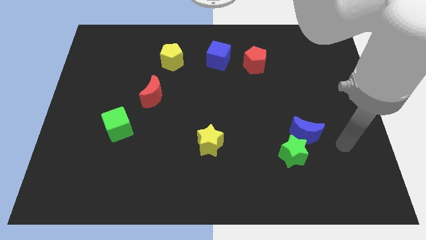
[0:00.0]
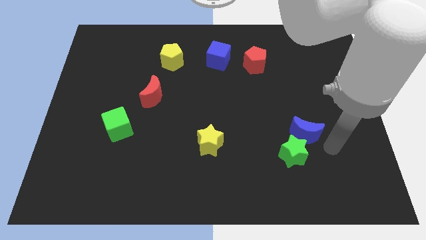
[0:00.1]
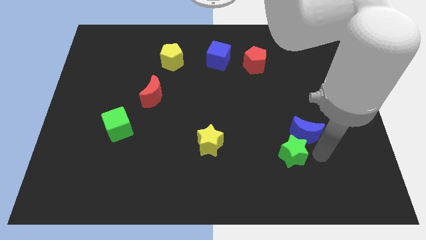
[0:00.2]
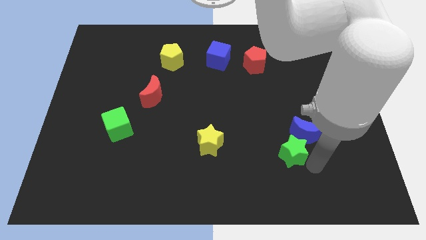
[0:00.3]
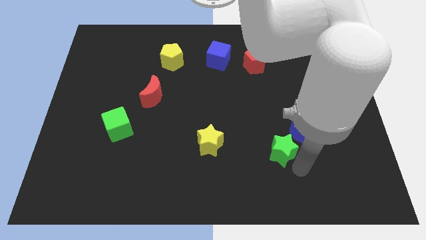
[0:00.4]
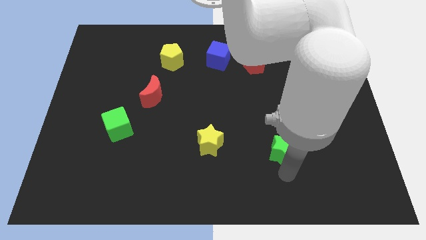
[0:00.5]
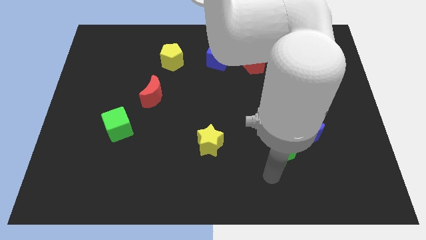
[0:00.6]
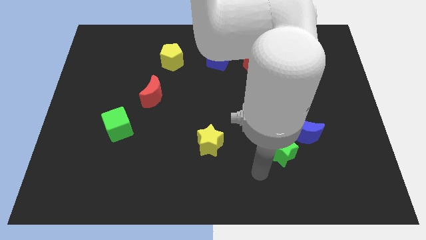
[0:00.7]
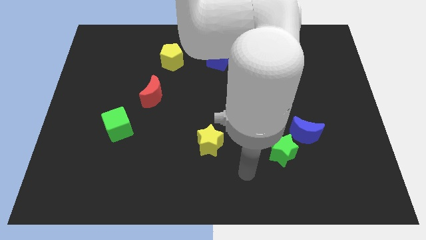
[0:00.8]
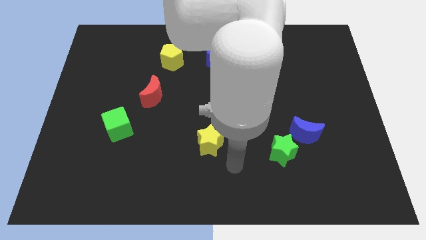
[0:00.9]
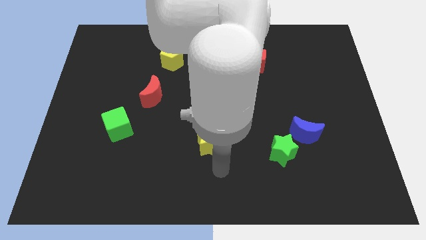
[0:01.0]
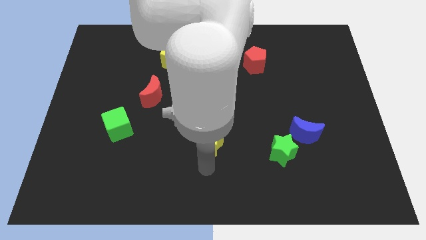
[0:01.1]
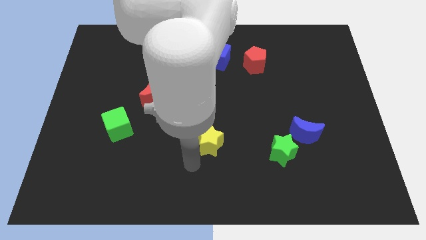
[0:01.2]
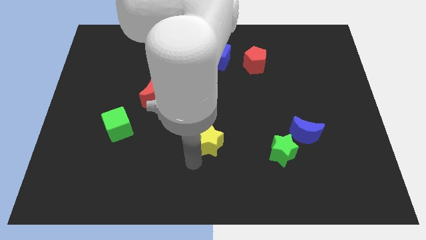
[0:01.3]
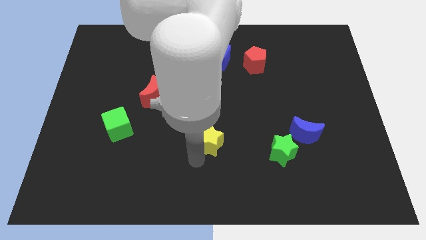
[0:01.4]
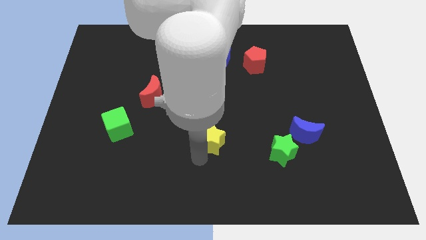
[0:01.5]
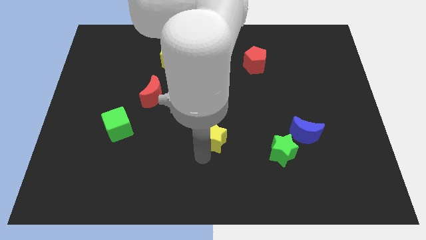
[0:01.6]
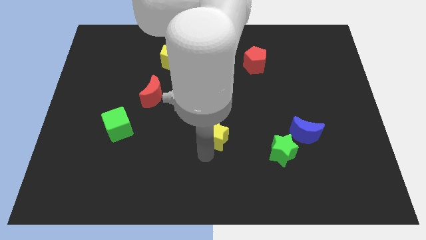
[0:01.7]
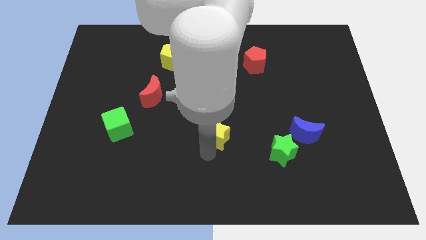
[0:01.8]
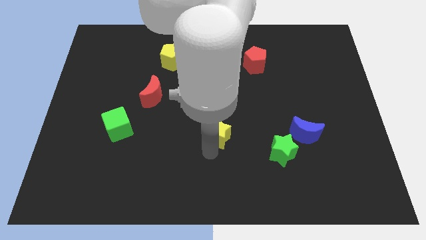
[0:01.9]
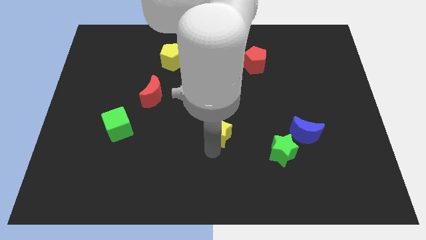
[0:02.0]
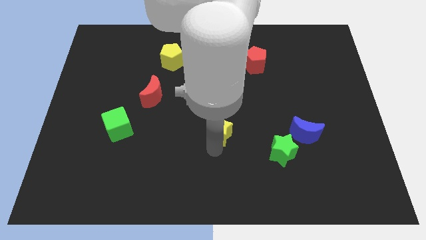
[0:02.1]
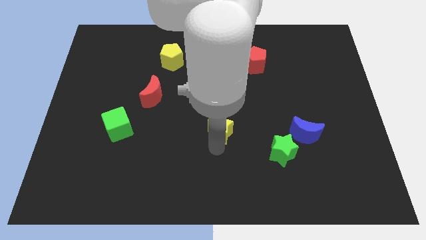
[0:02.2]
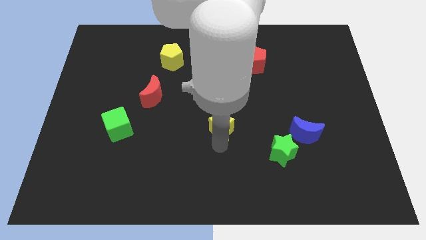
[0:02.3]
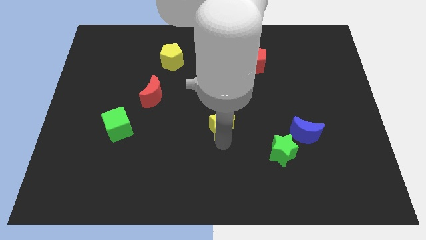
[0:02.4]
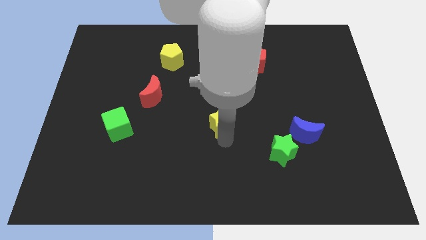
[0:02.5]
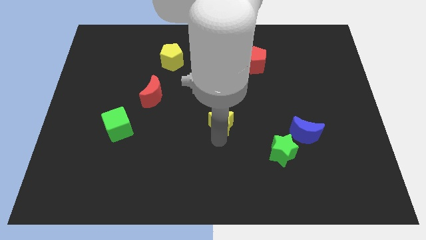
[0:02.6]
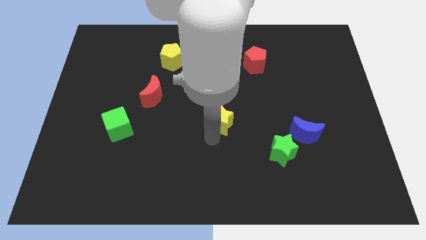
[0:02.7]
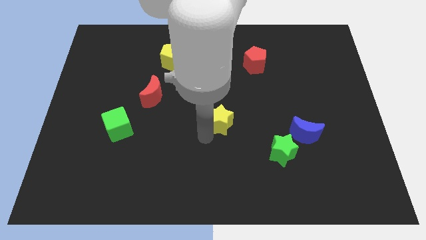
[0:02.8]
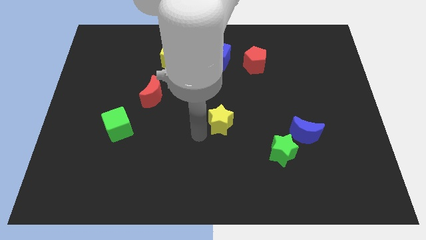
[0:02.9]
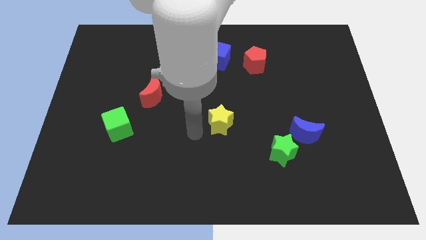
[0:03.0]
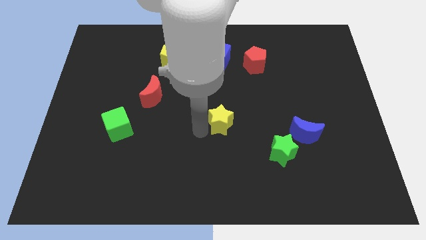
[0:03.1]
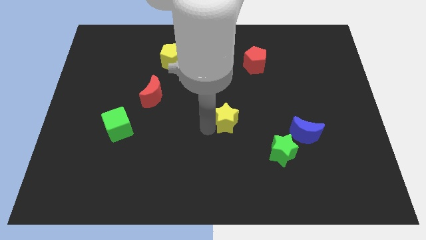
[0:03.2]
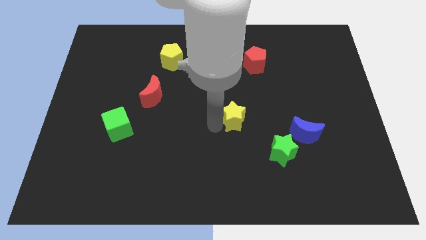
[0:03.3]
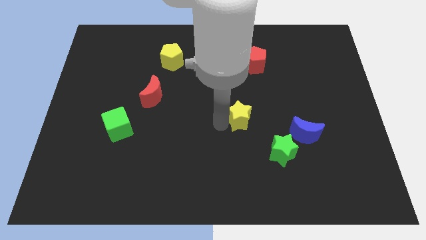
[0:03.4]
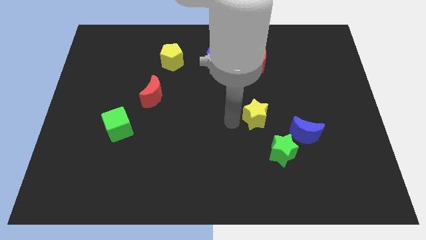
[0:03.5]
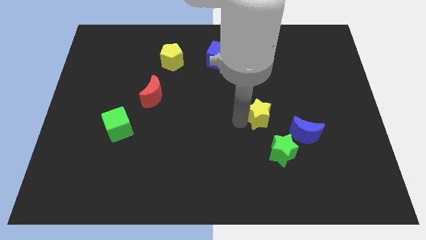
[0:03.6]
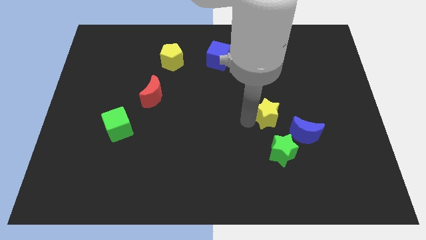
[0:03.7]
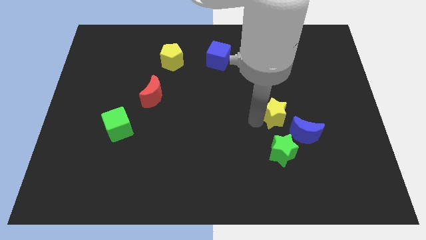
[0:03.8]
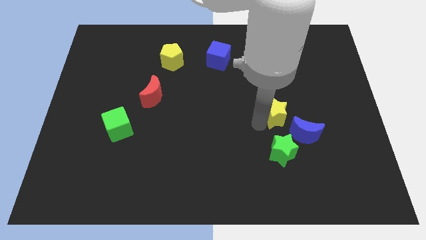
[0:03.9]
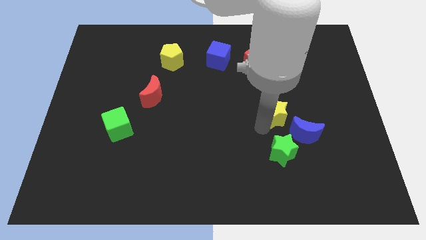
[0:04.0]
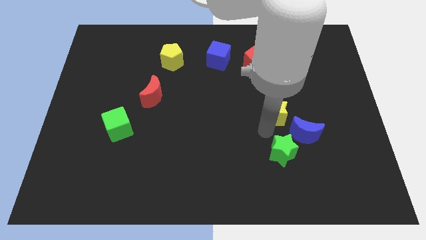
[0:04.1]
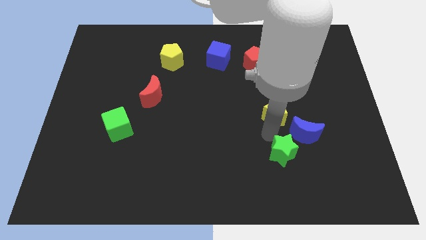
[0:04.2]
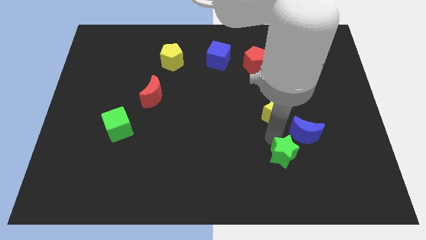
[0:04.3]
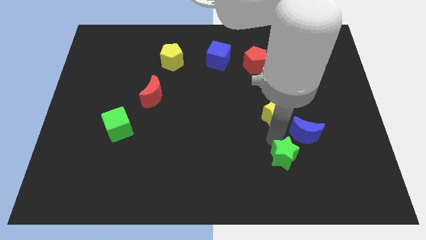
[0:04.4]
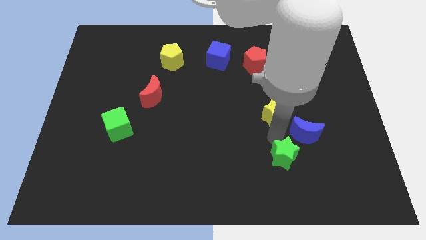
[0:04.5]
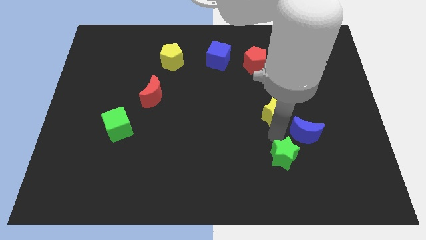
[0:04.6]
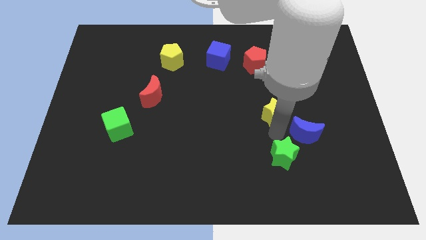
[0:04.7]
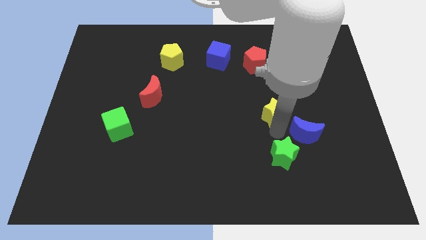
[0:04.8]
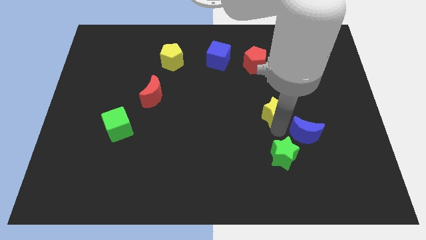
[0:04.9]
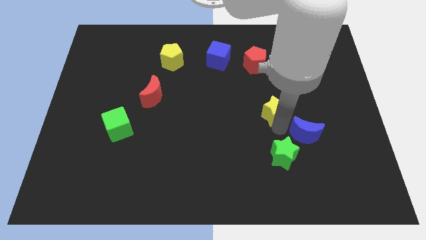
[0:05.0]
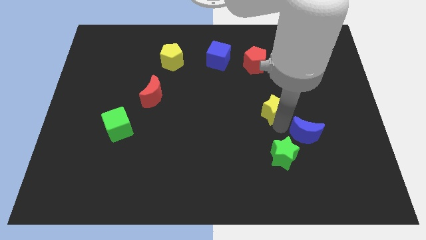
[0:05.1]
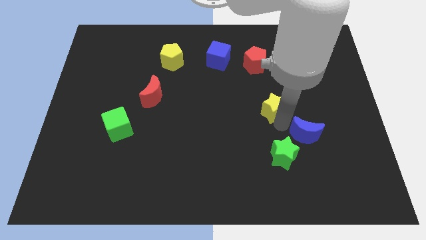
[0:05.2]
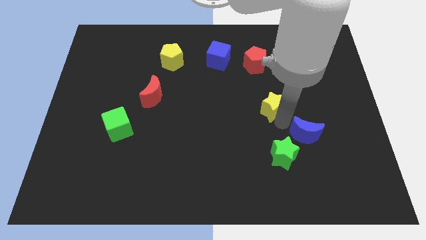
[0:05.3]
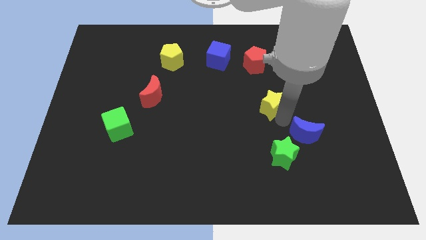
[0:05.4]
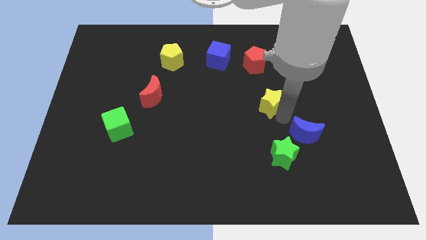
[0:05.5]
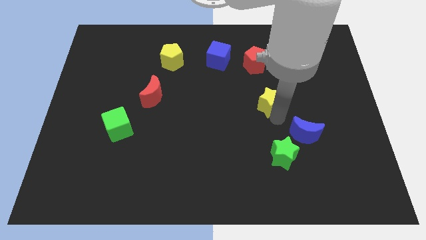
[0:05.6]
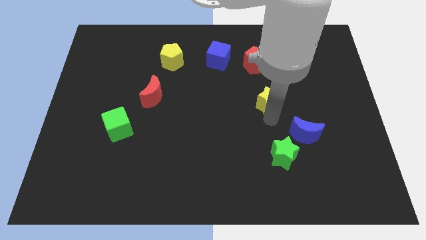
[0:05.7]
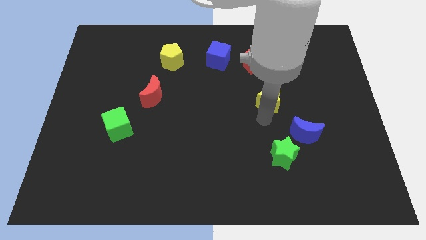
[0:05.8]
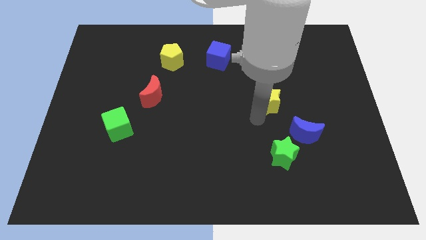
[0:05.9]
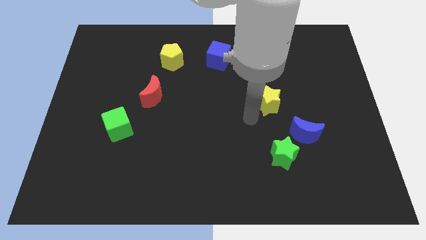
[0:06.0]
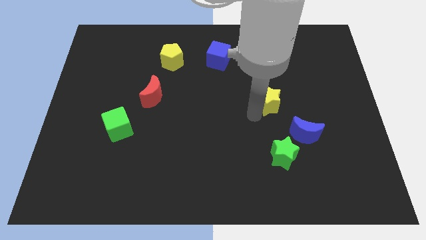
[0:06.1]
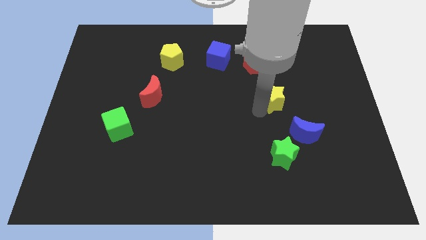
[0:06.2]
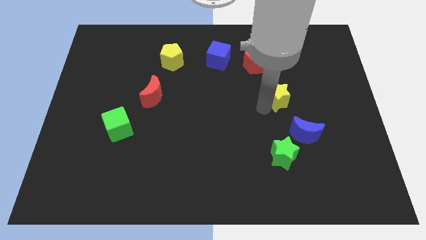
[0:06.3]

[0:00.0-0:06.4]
push the yellow star diagonally upwards and right

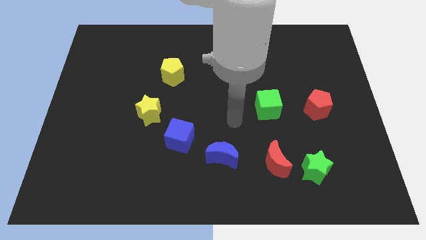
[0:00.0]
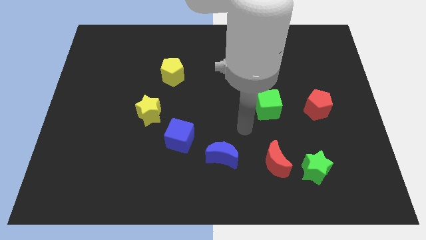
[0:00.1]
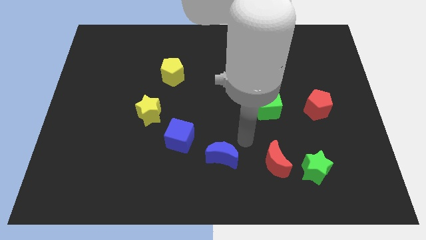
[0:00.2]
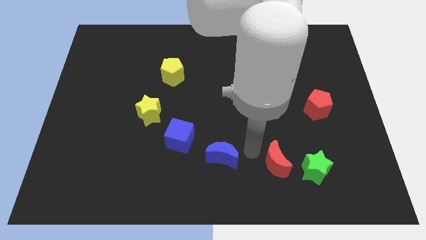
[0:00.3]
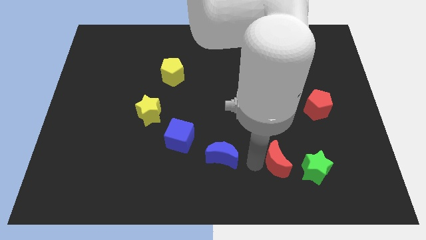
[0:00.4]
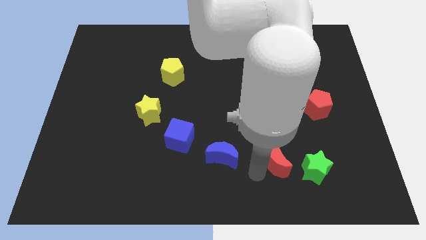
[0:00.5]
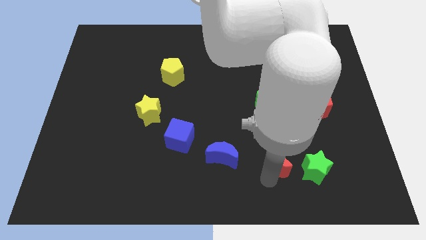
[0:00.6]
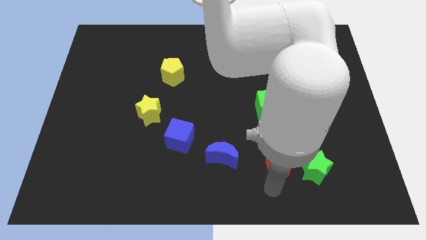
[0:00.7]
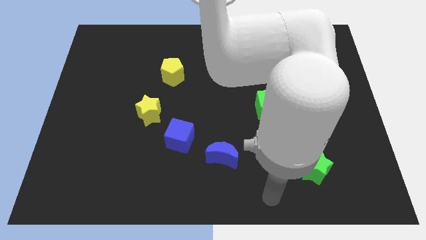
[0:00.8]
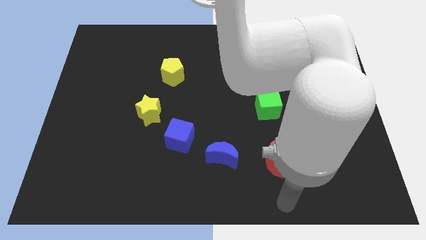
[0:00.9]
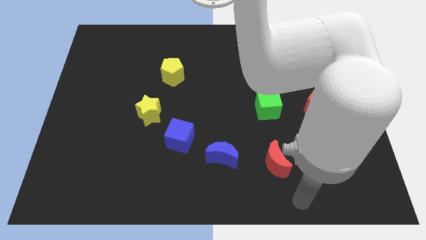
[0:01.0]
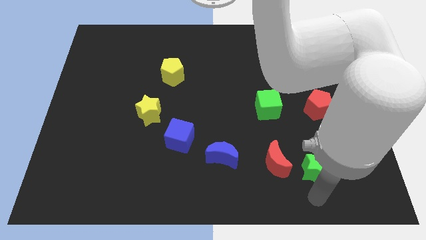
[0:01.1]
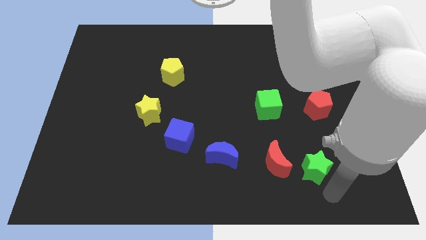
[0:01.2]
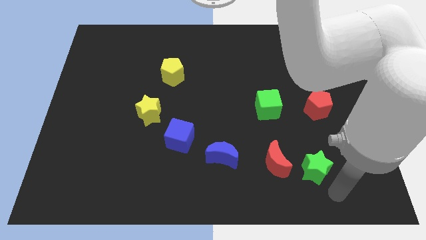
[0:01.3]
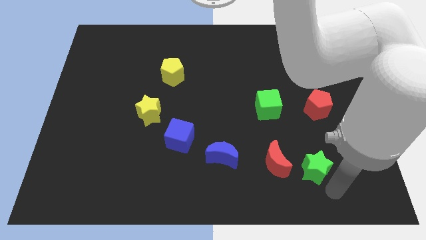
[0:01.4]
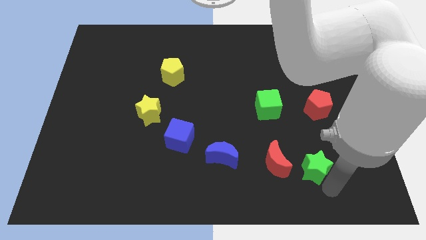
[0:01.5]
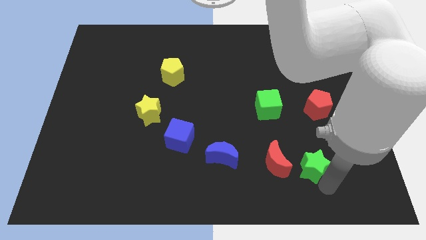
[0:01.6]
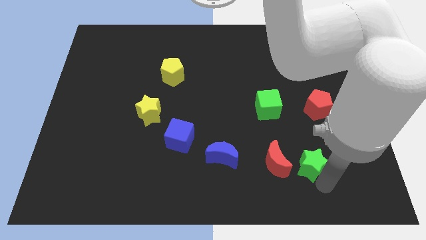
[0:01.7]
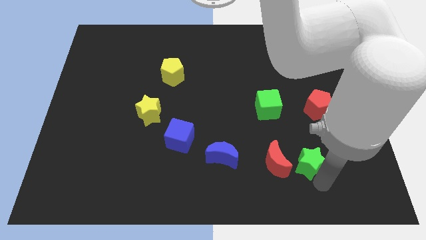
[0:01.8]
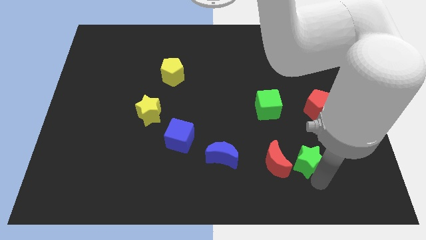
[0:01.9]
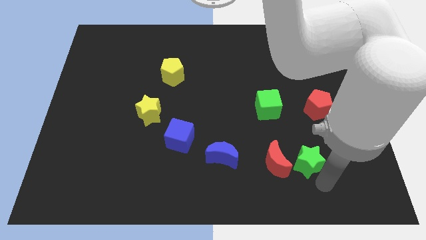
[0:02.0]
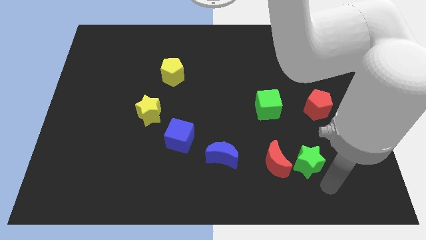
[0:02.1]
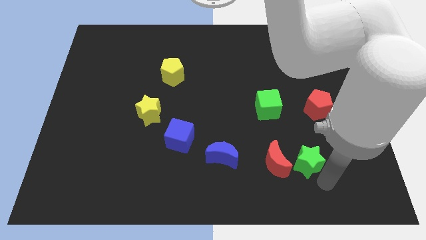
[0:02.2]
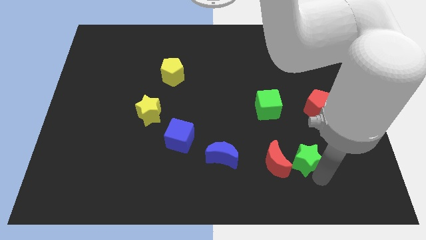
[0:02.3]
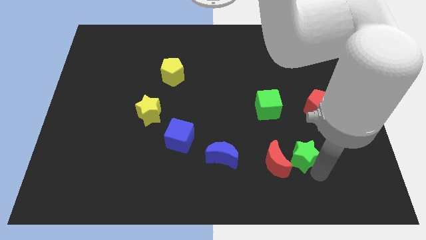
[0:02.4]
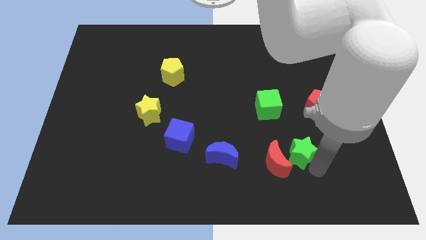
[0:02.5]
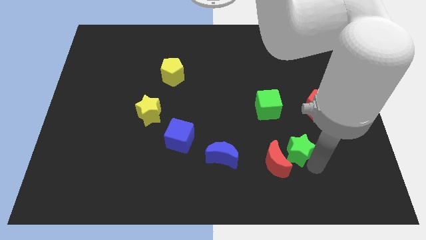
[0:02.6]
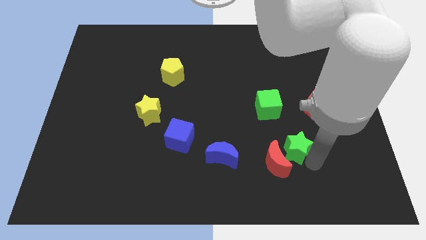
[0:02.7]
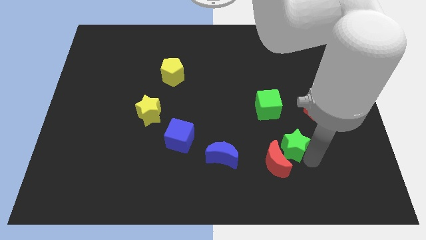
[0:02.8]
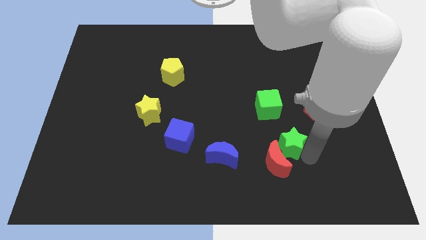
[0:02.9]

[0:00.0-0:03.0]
slightly move the green star upwards and to the left diagonally
